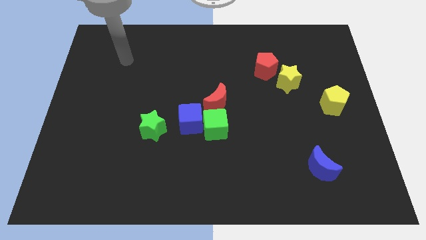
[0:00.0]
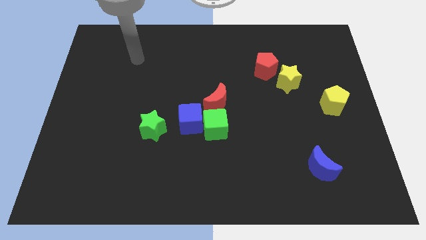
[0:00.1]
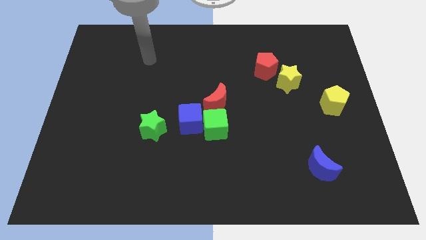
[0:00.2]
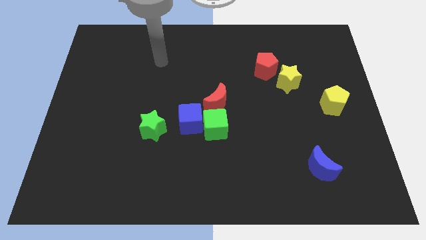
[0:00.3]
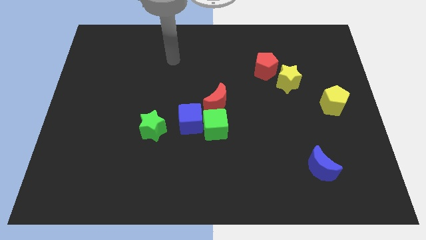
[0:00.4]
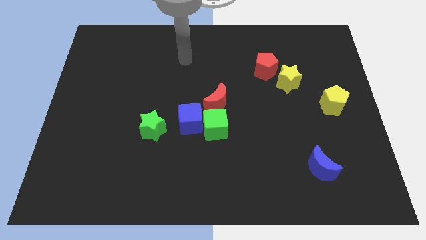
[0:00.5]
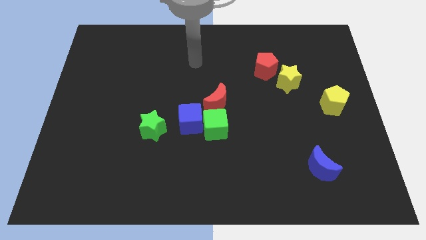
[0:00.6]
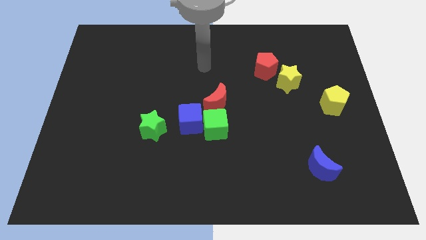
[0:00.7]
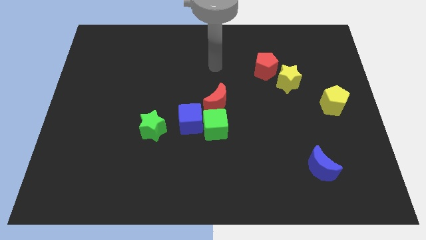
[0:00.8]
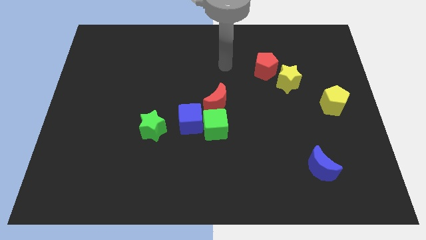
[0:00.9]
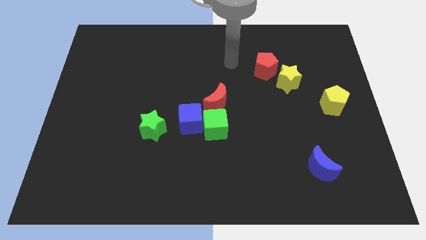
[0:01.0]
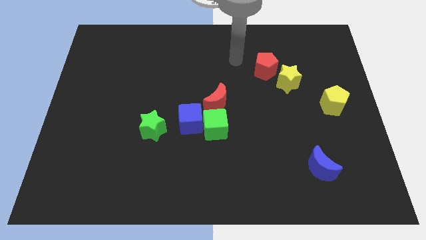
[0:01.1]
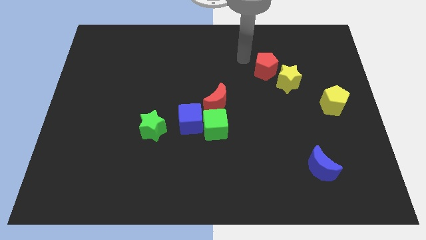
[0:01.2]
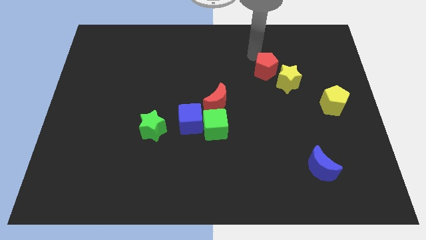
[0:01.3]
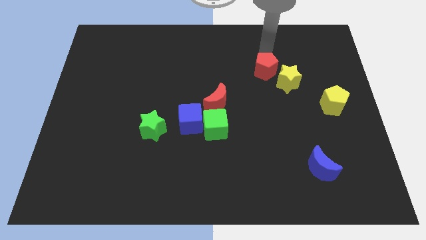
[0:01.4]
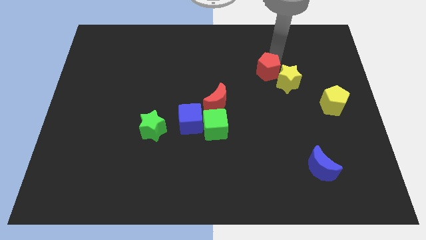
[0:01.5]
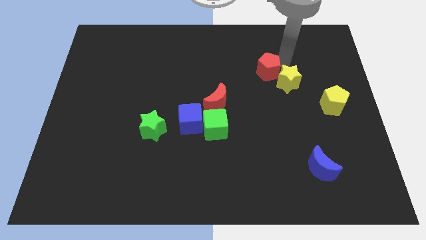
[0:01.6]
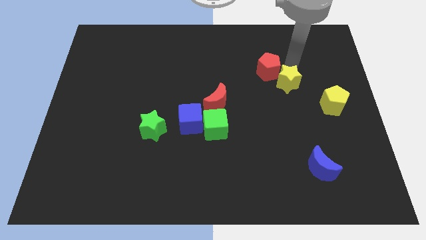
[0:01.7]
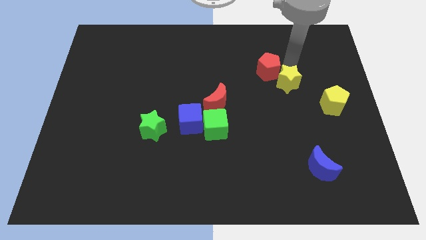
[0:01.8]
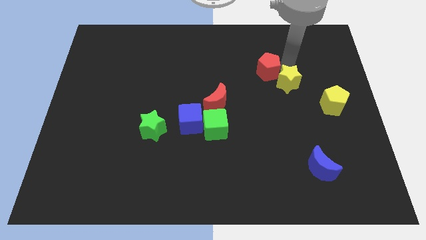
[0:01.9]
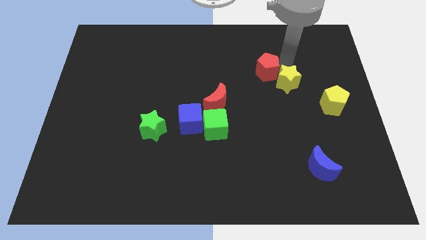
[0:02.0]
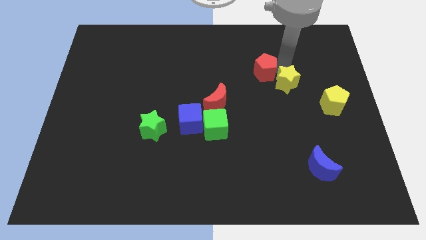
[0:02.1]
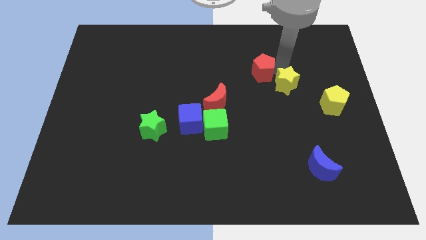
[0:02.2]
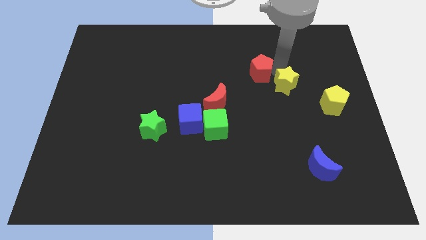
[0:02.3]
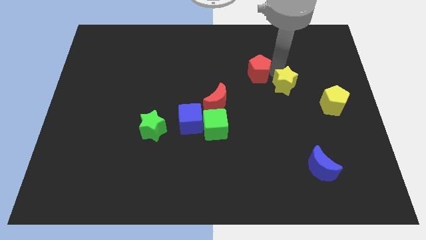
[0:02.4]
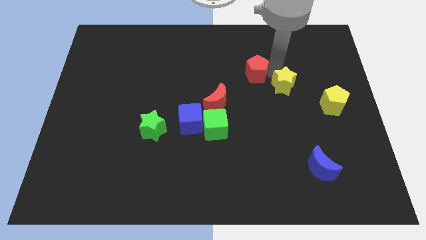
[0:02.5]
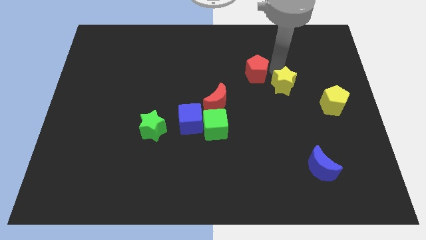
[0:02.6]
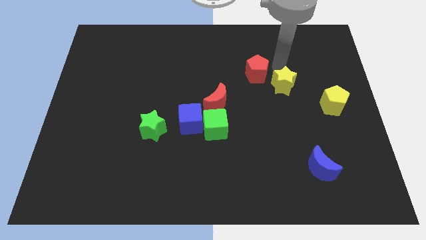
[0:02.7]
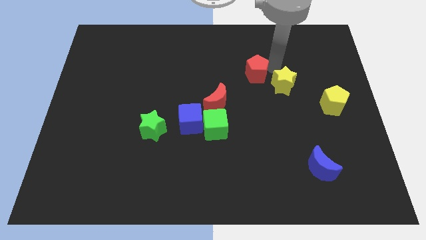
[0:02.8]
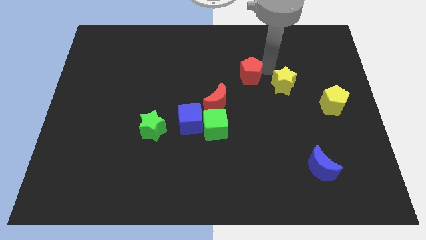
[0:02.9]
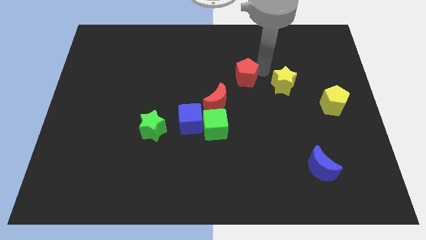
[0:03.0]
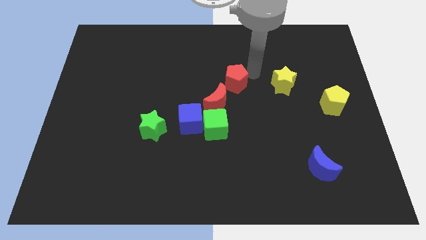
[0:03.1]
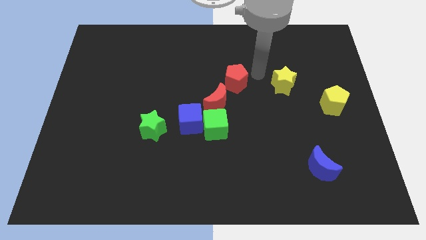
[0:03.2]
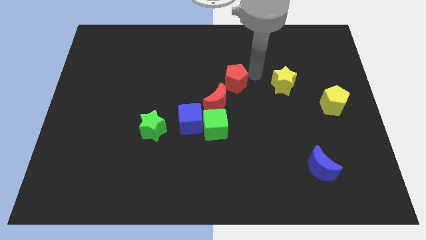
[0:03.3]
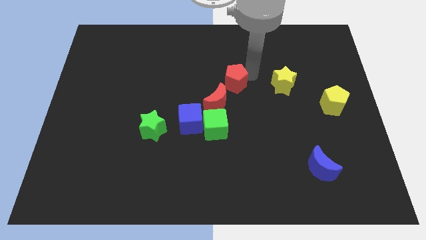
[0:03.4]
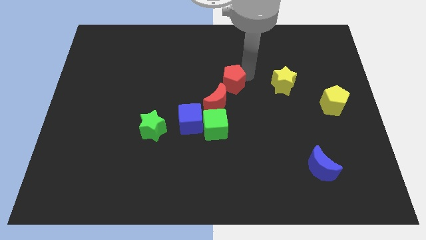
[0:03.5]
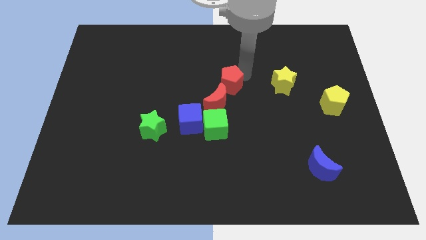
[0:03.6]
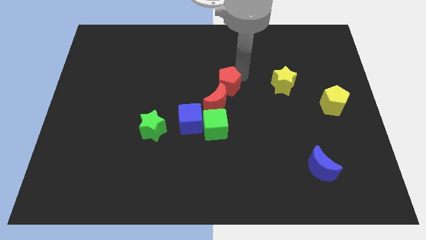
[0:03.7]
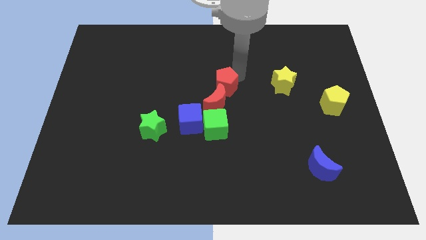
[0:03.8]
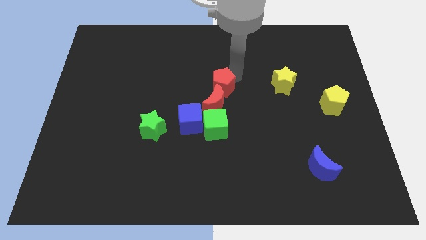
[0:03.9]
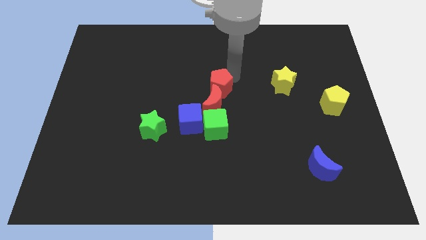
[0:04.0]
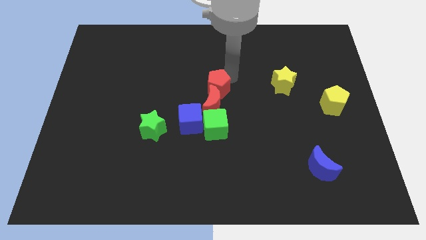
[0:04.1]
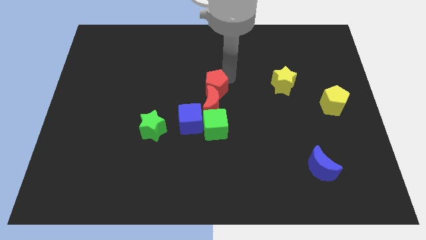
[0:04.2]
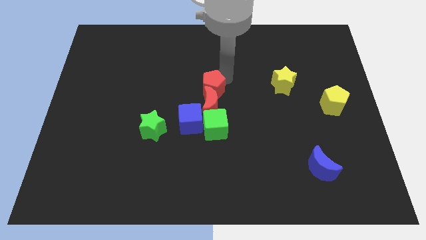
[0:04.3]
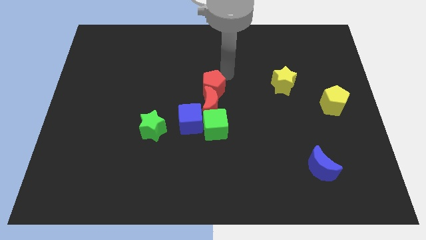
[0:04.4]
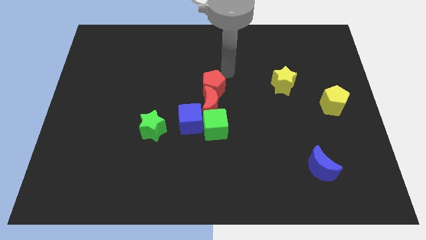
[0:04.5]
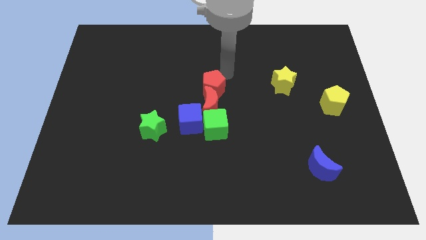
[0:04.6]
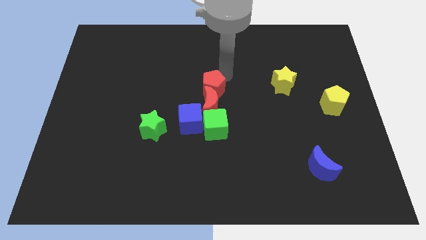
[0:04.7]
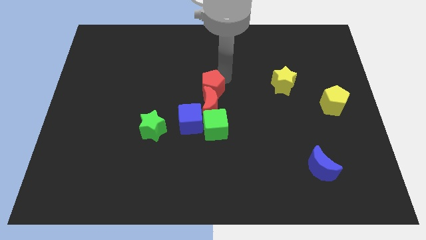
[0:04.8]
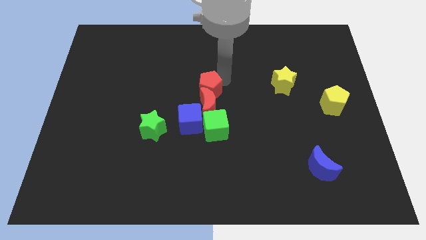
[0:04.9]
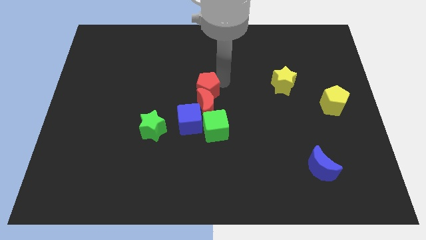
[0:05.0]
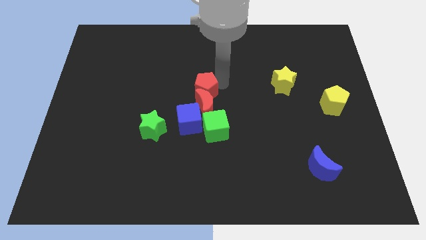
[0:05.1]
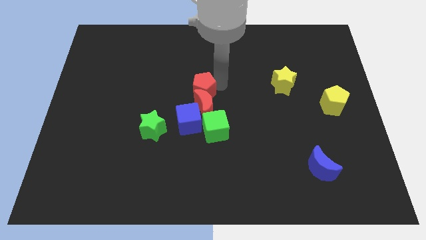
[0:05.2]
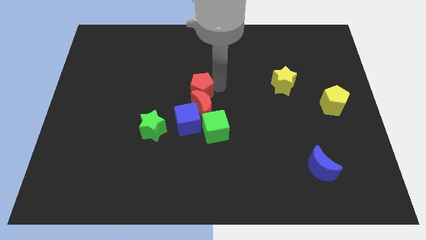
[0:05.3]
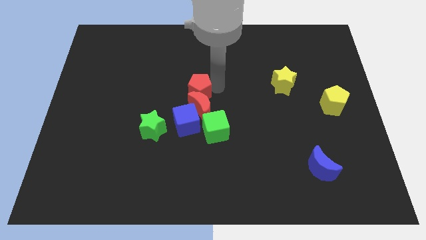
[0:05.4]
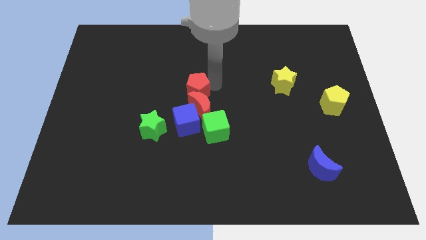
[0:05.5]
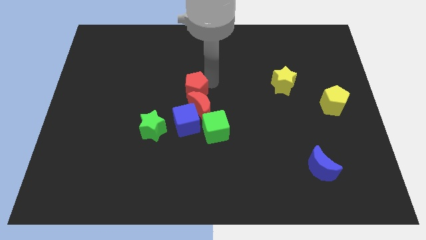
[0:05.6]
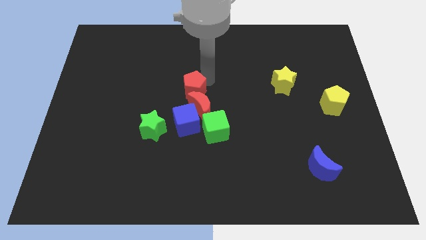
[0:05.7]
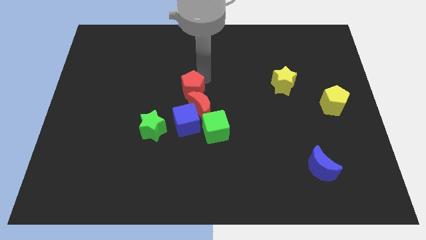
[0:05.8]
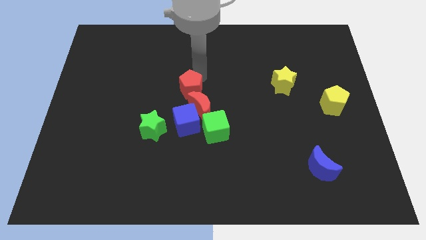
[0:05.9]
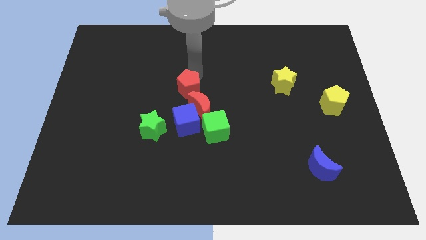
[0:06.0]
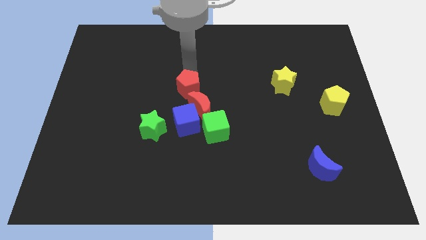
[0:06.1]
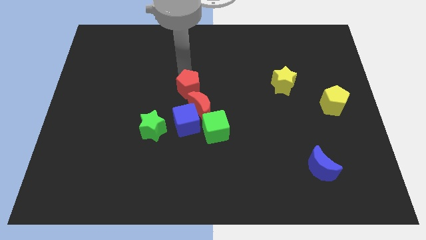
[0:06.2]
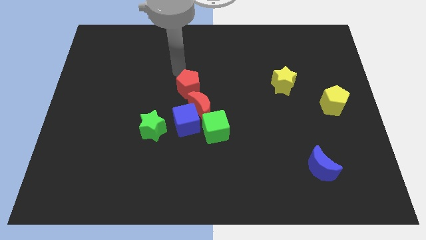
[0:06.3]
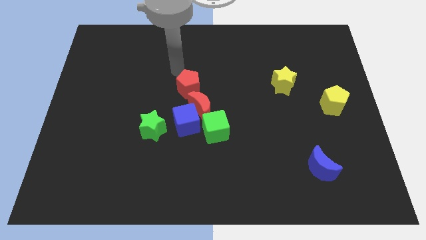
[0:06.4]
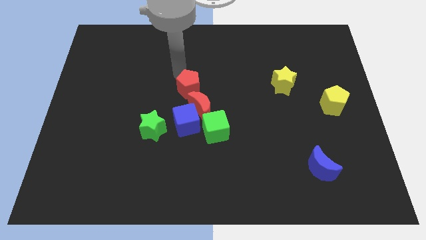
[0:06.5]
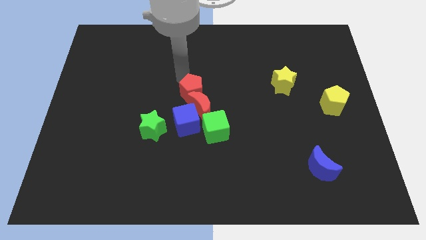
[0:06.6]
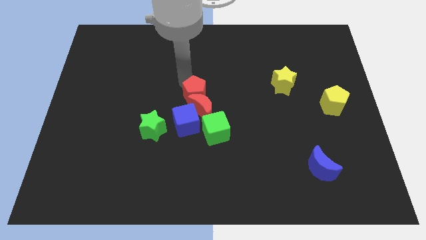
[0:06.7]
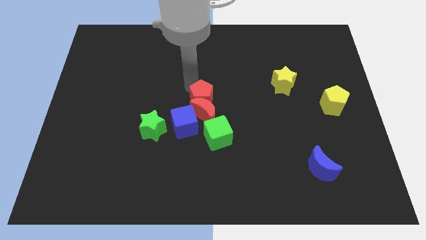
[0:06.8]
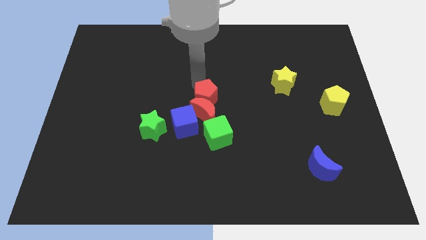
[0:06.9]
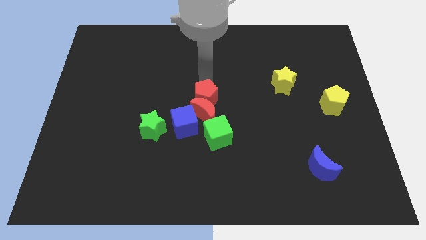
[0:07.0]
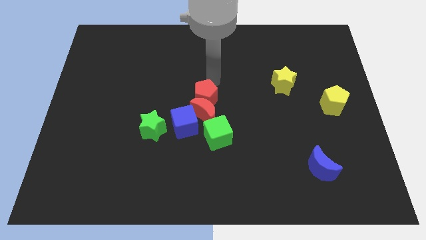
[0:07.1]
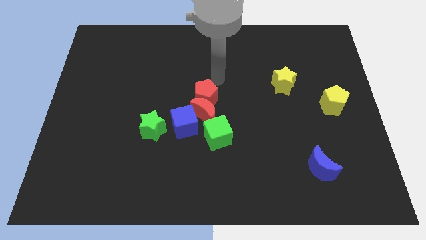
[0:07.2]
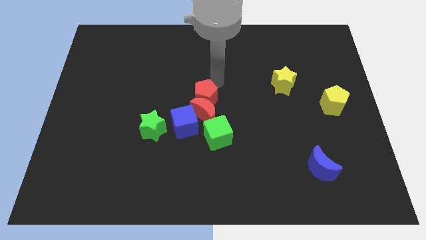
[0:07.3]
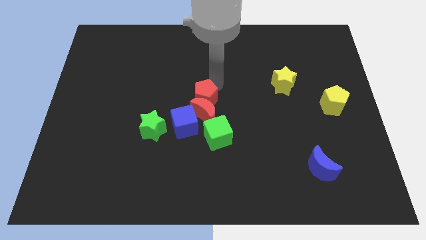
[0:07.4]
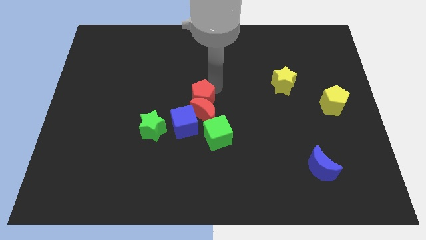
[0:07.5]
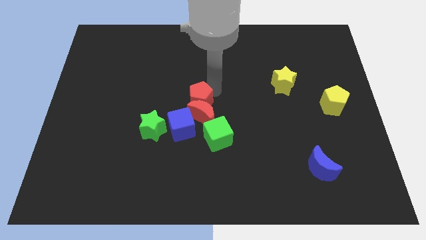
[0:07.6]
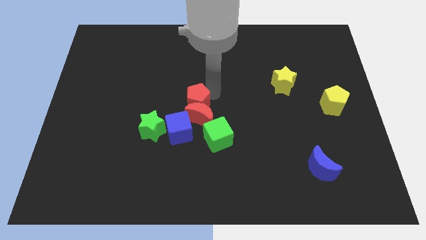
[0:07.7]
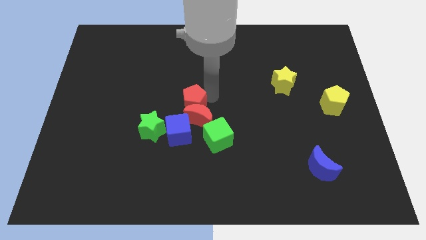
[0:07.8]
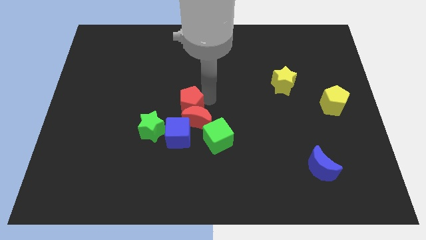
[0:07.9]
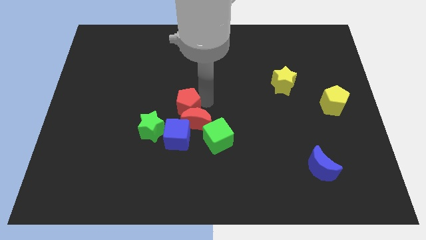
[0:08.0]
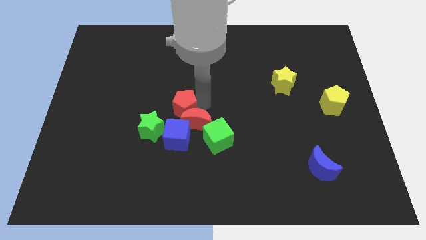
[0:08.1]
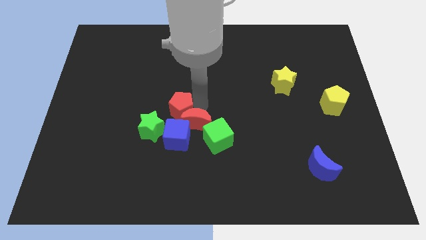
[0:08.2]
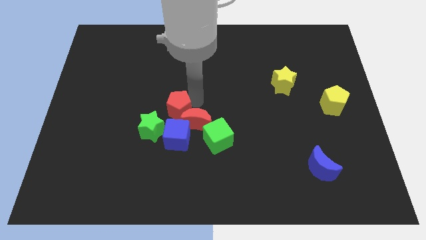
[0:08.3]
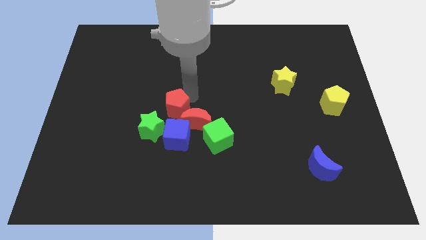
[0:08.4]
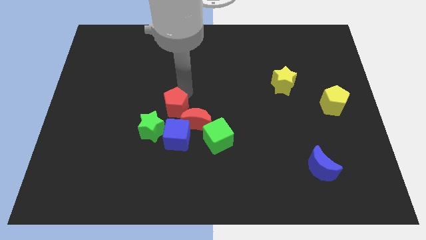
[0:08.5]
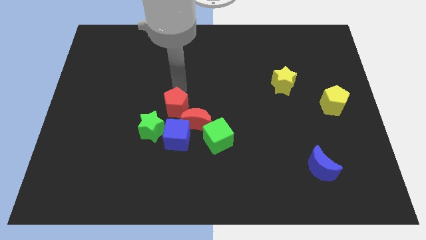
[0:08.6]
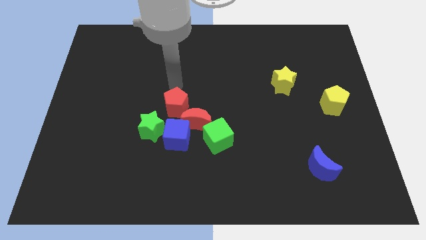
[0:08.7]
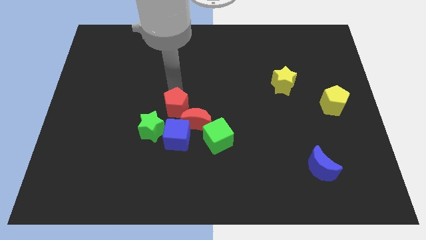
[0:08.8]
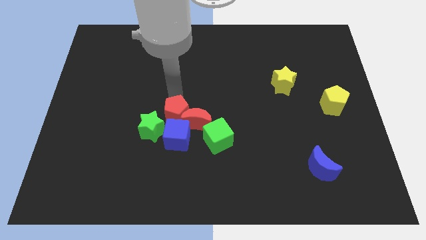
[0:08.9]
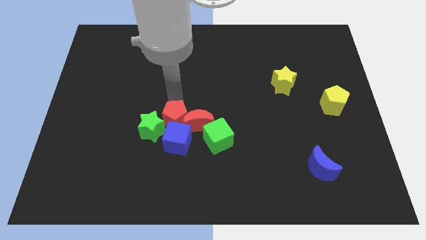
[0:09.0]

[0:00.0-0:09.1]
put the red pentagon next to the blue cube
